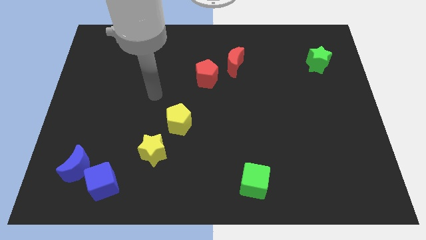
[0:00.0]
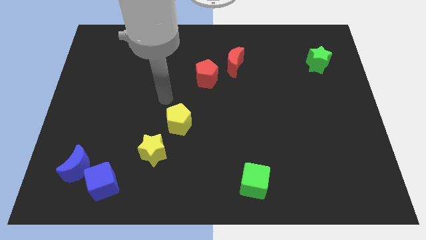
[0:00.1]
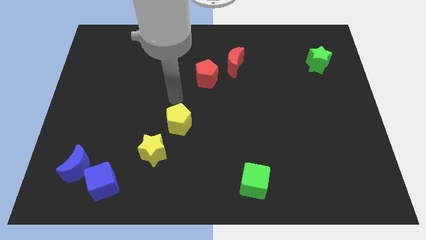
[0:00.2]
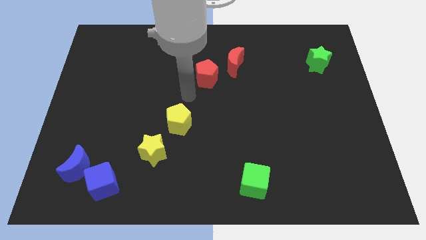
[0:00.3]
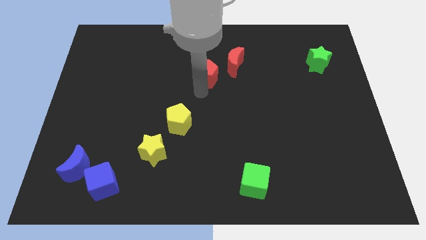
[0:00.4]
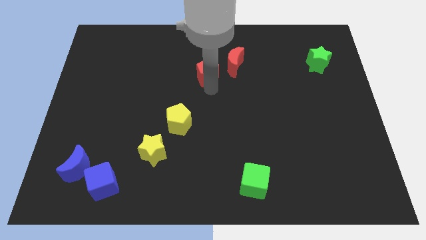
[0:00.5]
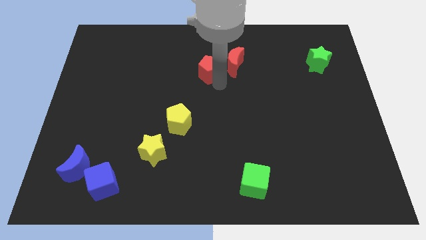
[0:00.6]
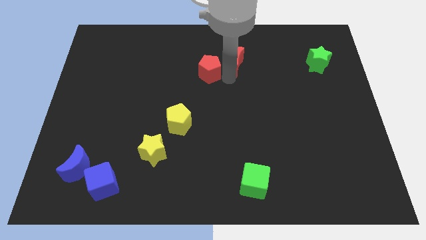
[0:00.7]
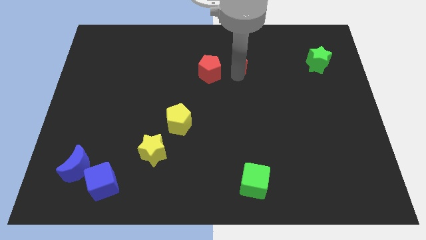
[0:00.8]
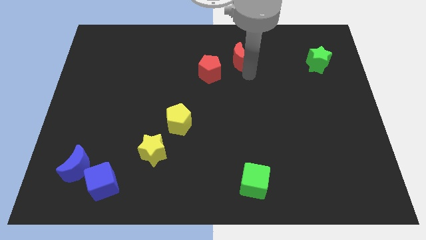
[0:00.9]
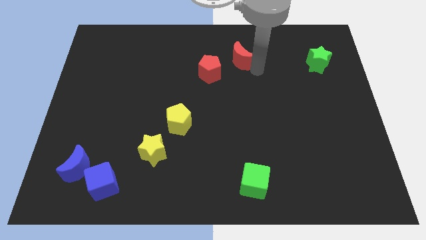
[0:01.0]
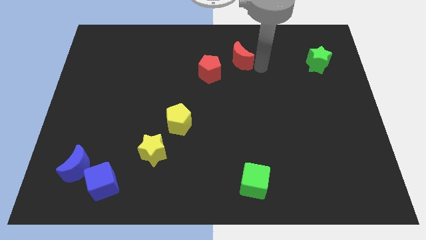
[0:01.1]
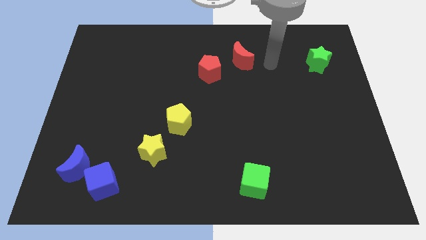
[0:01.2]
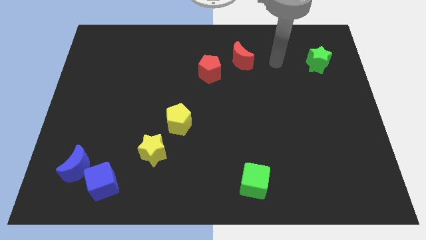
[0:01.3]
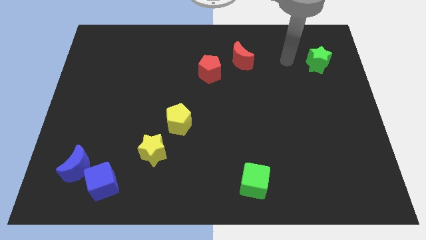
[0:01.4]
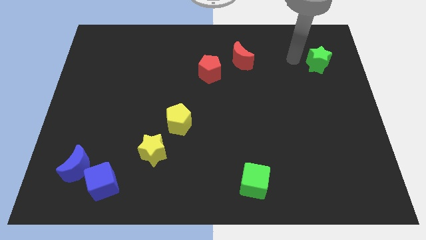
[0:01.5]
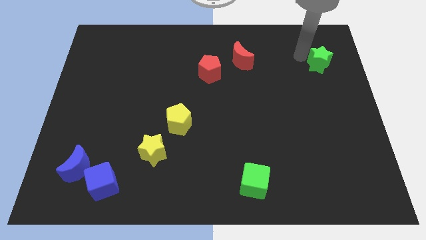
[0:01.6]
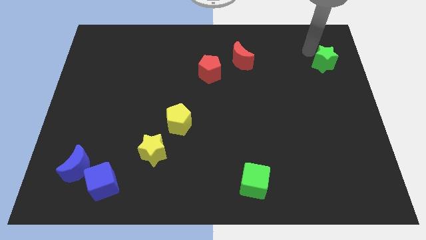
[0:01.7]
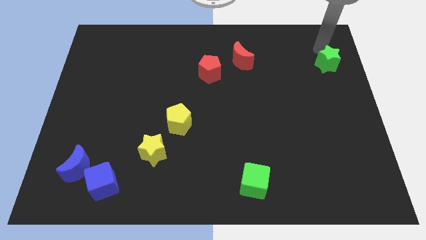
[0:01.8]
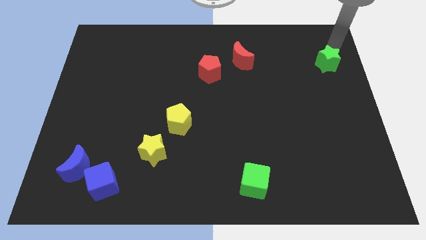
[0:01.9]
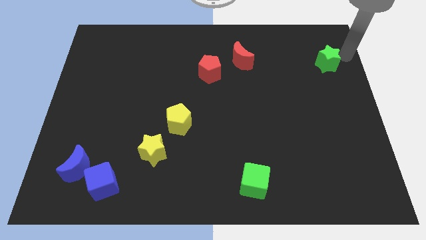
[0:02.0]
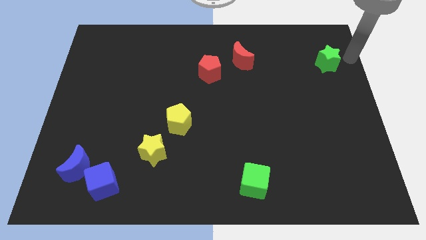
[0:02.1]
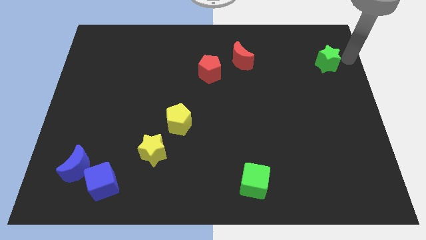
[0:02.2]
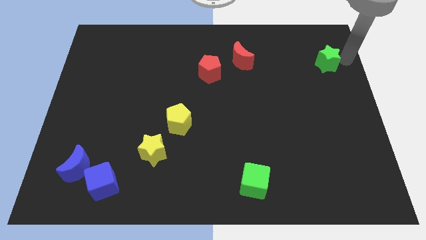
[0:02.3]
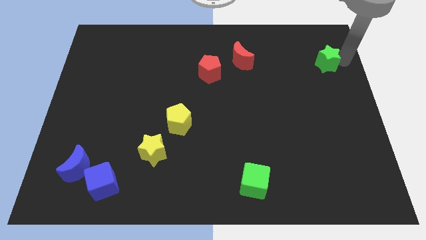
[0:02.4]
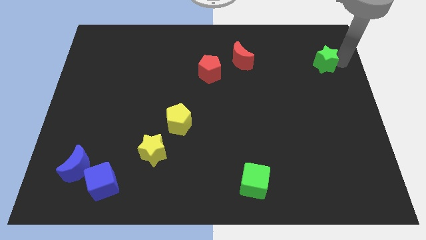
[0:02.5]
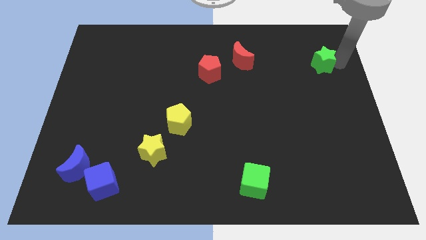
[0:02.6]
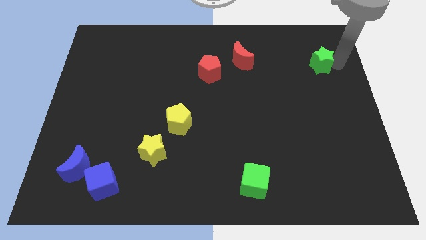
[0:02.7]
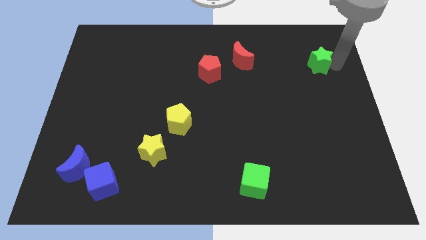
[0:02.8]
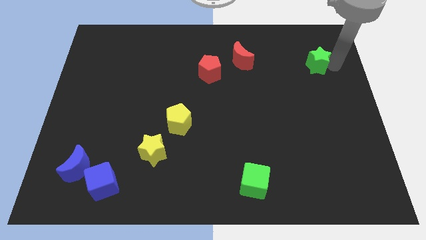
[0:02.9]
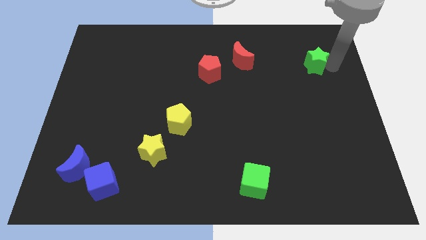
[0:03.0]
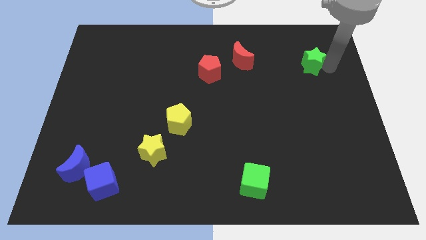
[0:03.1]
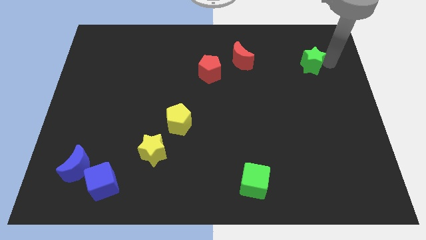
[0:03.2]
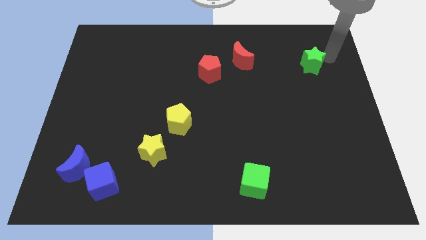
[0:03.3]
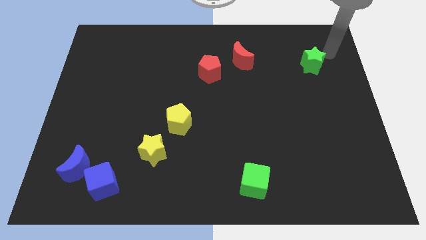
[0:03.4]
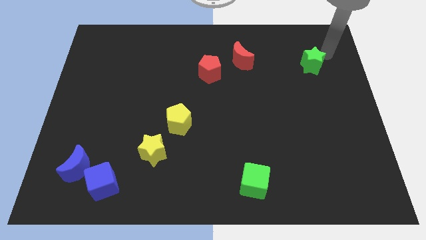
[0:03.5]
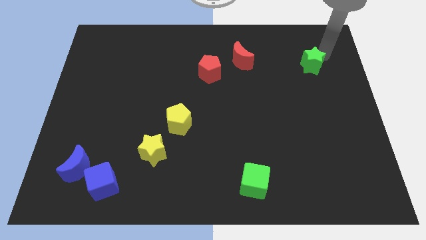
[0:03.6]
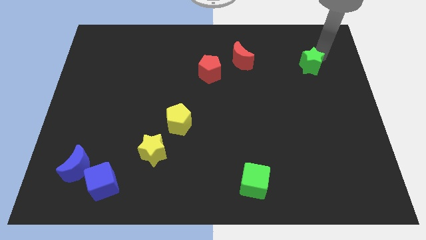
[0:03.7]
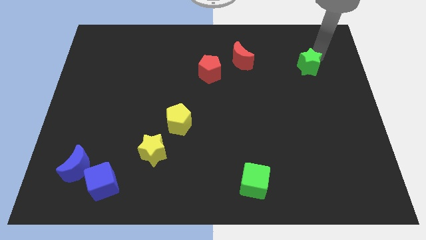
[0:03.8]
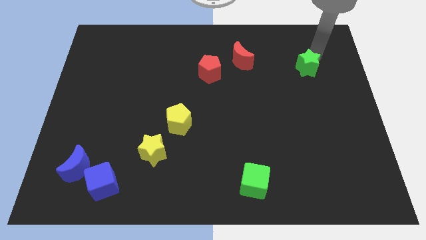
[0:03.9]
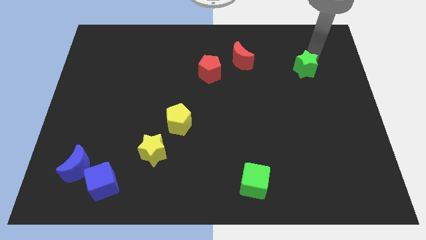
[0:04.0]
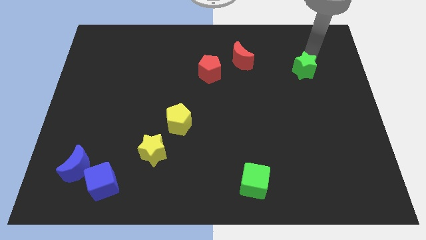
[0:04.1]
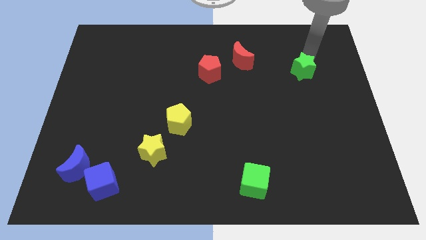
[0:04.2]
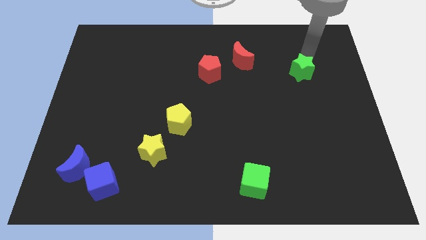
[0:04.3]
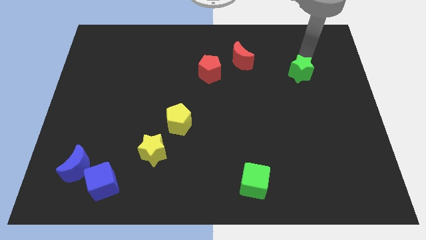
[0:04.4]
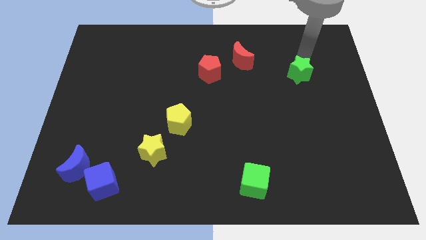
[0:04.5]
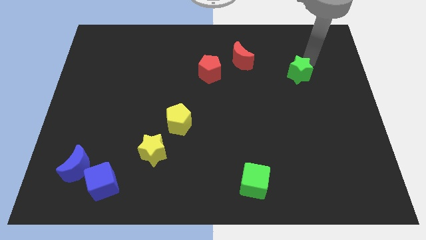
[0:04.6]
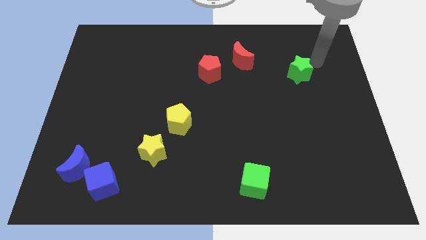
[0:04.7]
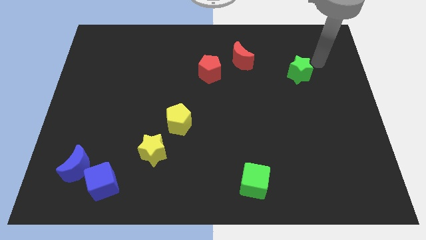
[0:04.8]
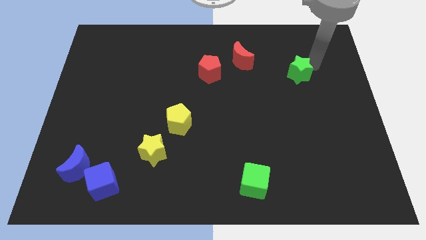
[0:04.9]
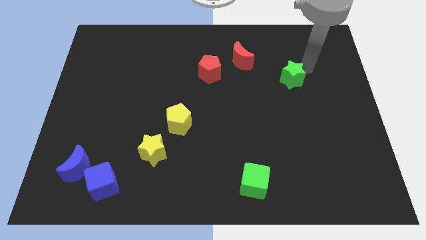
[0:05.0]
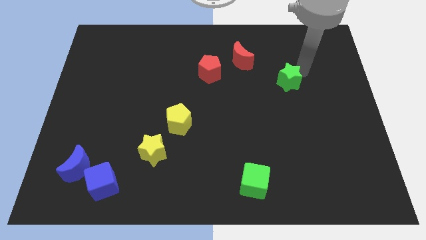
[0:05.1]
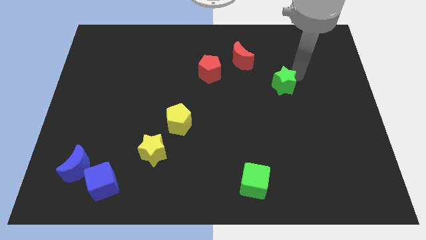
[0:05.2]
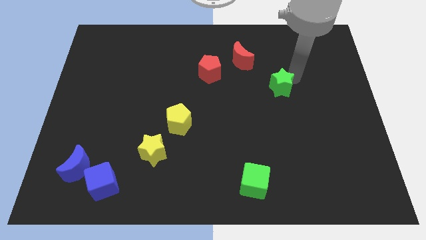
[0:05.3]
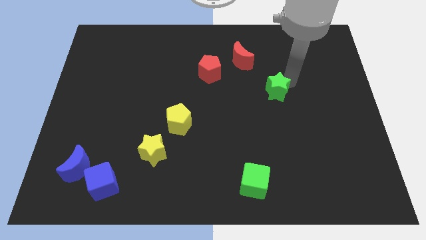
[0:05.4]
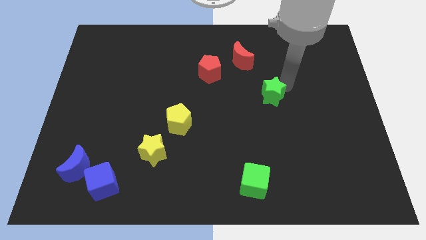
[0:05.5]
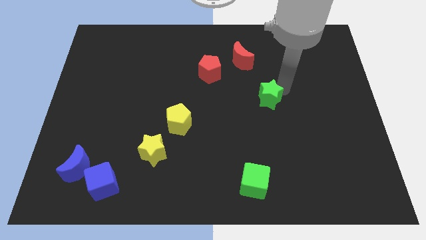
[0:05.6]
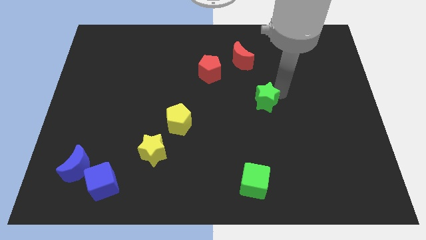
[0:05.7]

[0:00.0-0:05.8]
push the green star to the middle
